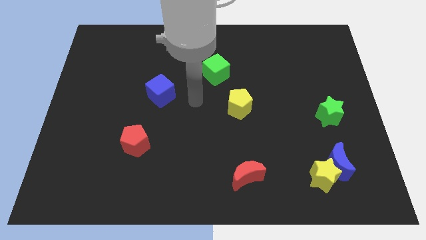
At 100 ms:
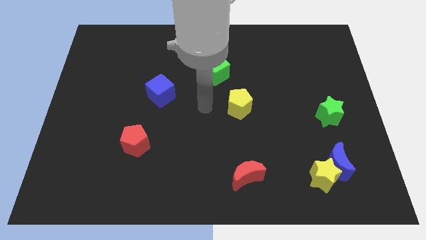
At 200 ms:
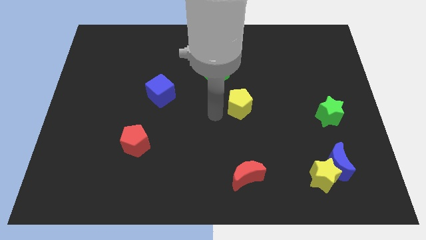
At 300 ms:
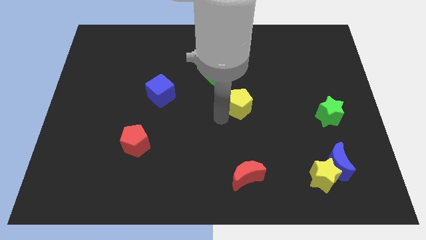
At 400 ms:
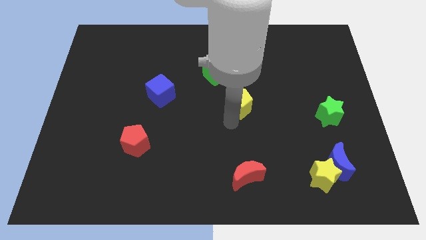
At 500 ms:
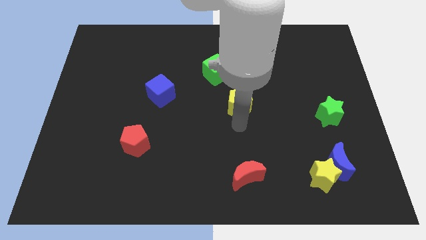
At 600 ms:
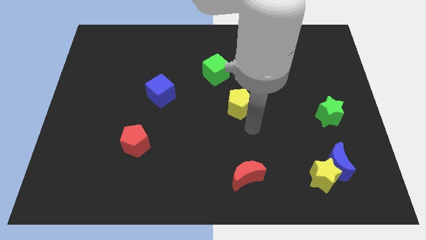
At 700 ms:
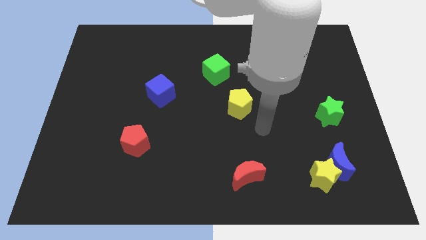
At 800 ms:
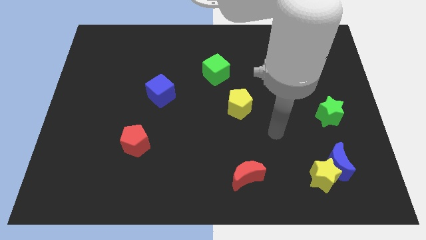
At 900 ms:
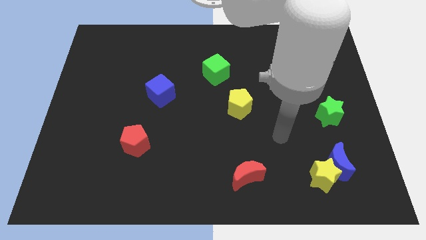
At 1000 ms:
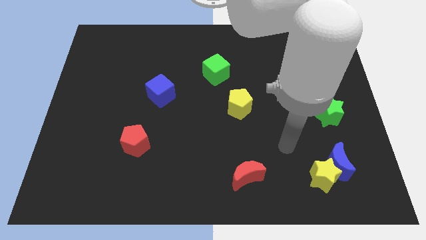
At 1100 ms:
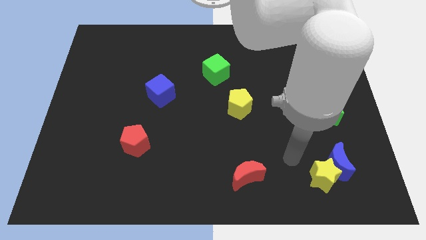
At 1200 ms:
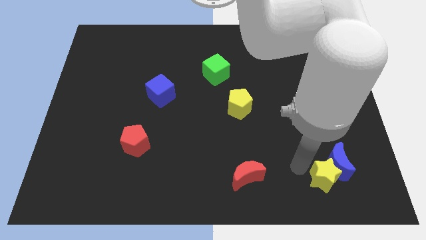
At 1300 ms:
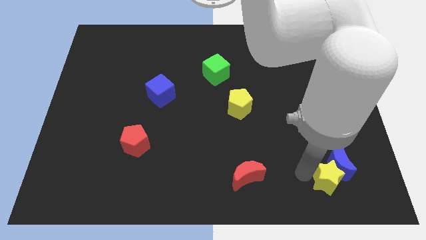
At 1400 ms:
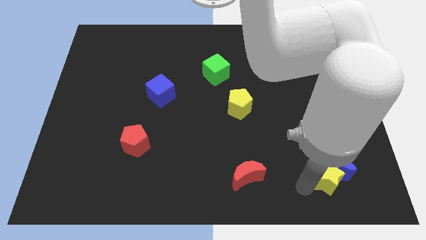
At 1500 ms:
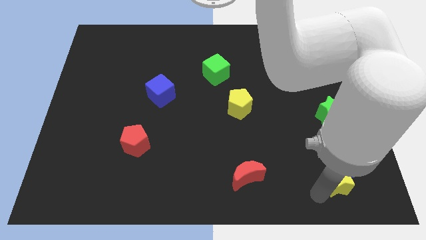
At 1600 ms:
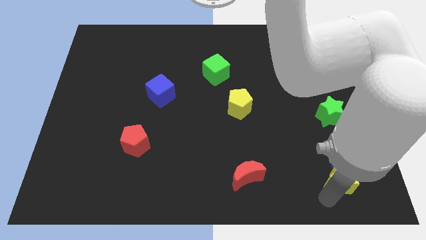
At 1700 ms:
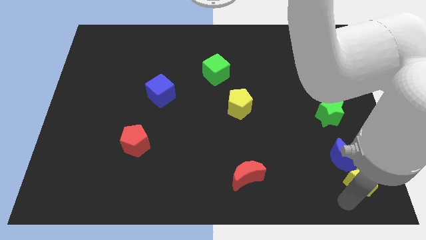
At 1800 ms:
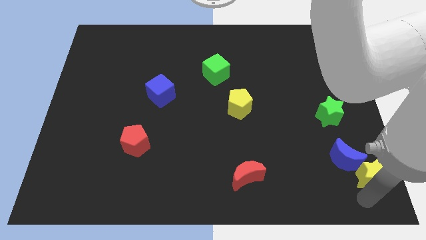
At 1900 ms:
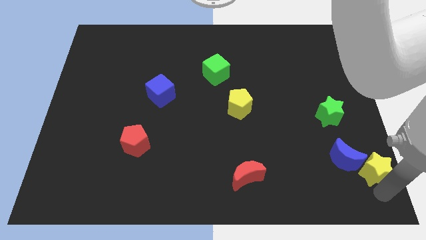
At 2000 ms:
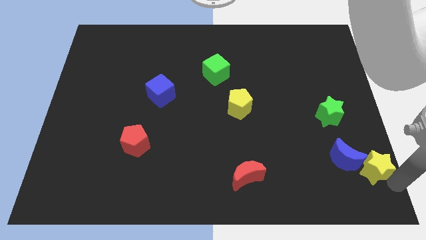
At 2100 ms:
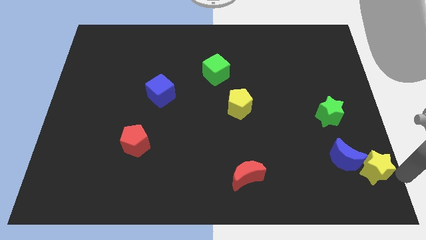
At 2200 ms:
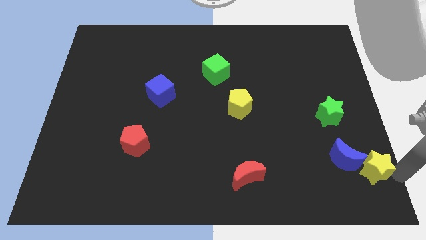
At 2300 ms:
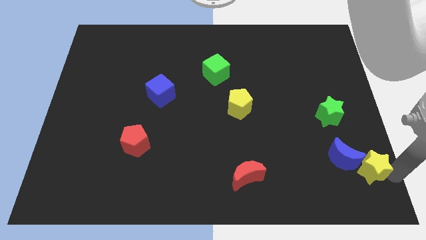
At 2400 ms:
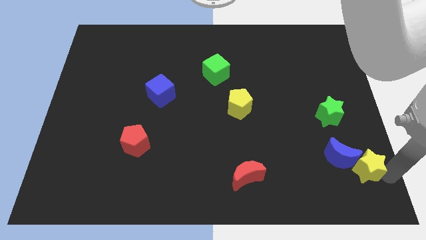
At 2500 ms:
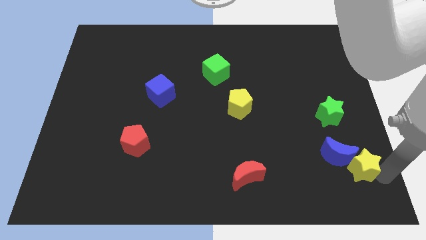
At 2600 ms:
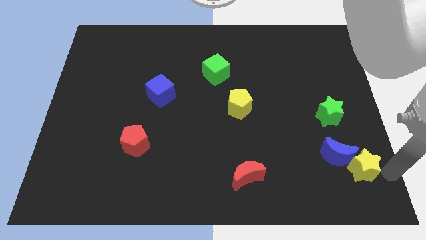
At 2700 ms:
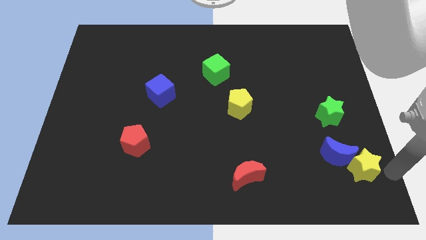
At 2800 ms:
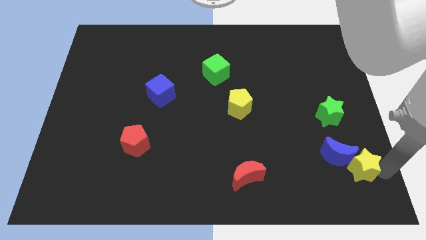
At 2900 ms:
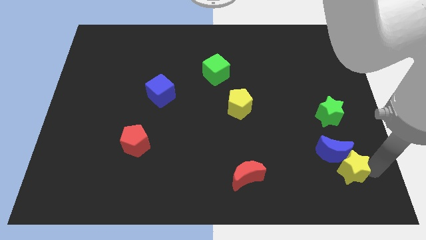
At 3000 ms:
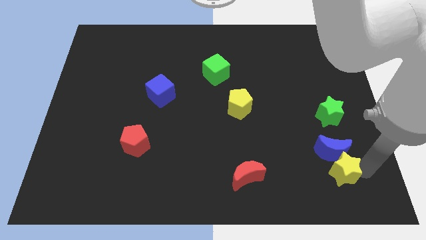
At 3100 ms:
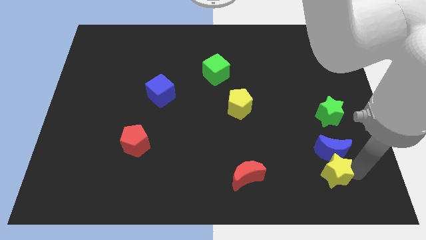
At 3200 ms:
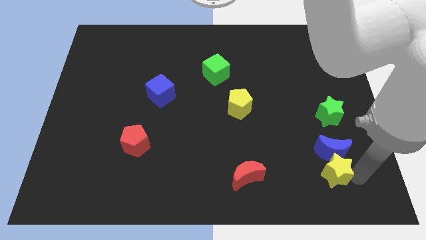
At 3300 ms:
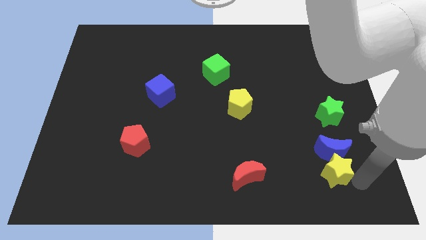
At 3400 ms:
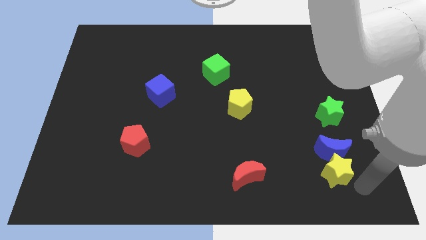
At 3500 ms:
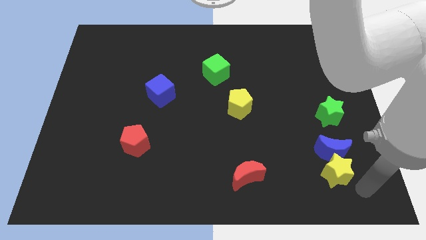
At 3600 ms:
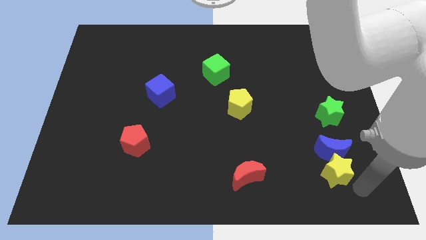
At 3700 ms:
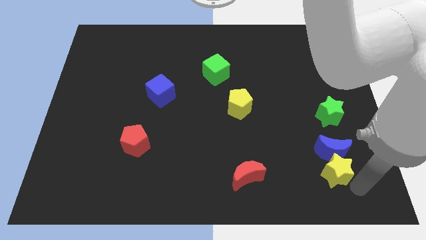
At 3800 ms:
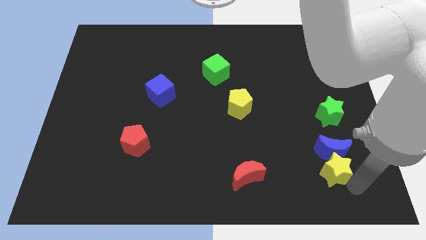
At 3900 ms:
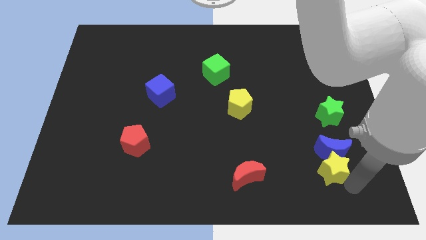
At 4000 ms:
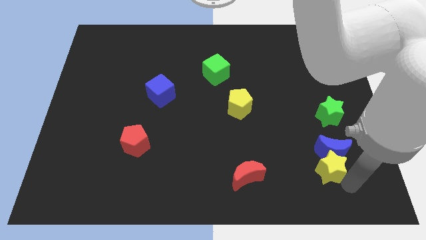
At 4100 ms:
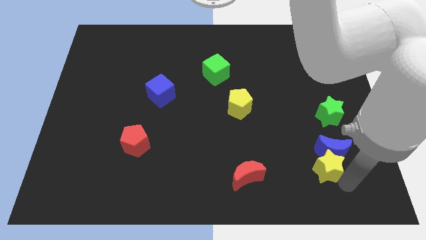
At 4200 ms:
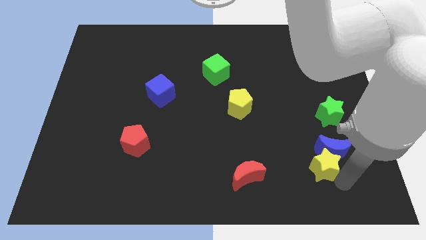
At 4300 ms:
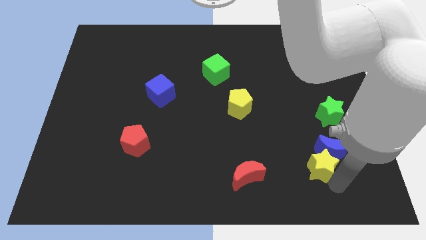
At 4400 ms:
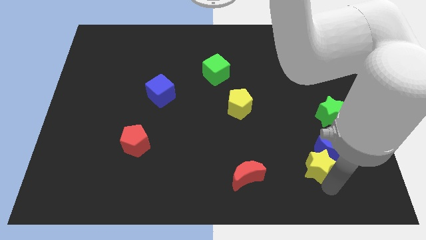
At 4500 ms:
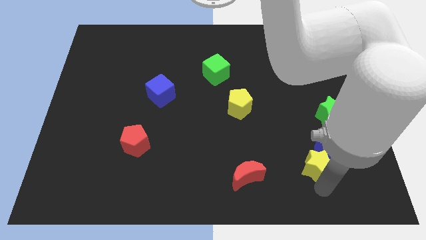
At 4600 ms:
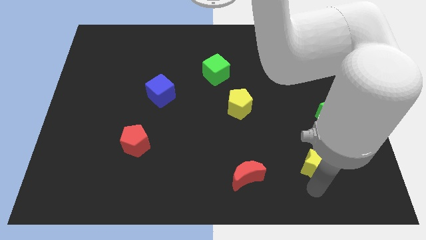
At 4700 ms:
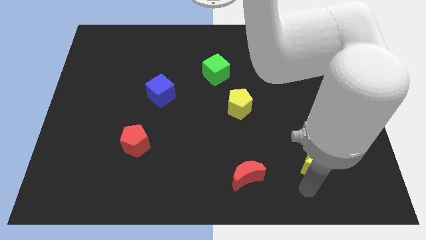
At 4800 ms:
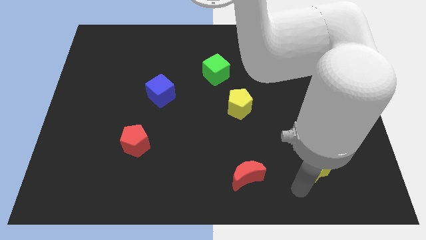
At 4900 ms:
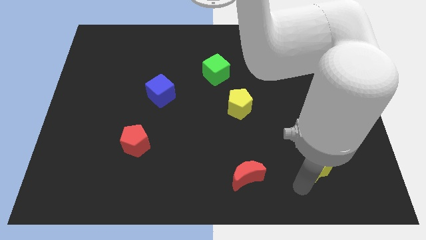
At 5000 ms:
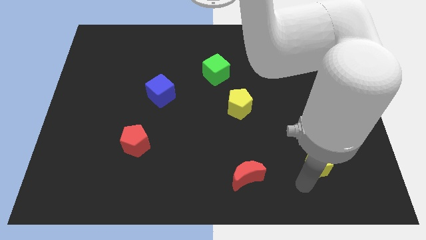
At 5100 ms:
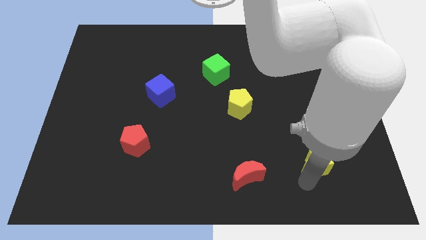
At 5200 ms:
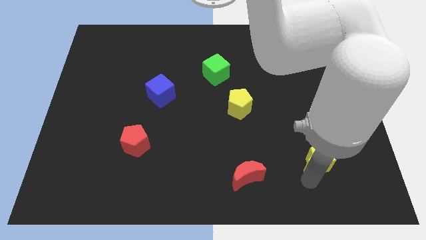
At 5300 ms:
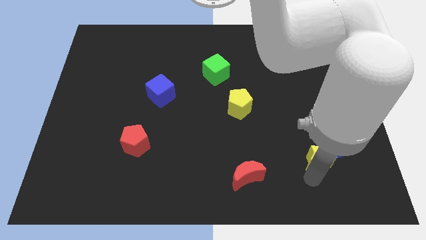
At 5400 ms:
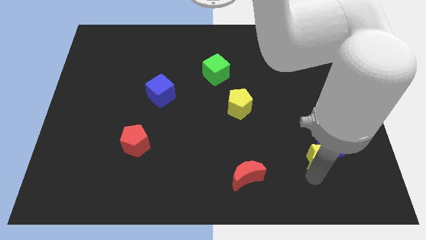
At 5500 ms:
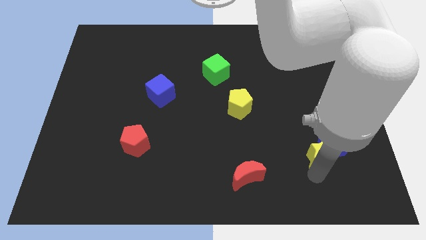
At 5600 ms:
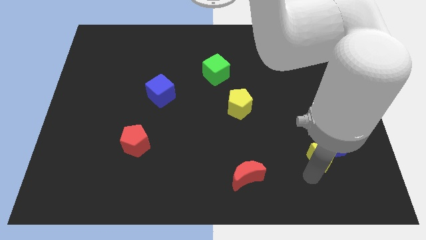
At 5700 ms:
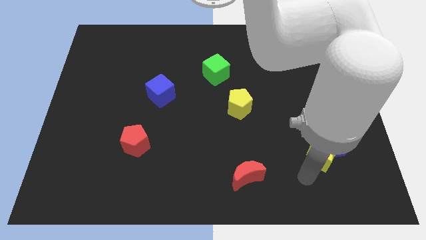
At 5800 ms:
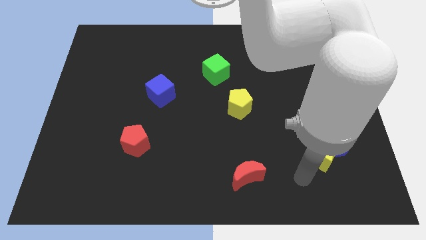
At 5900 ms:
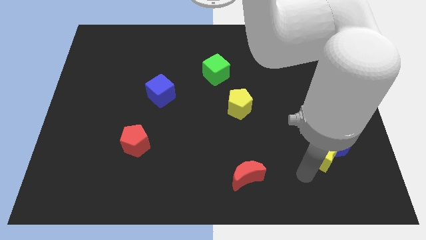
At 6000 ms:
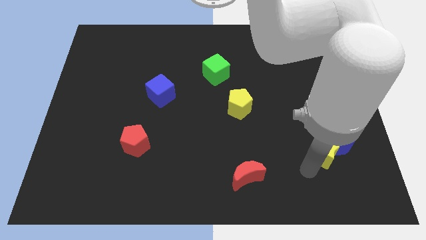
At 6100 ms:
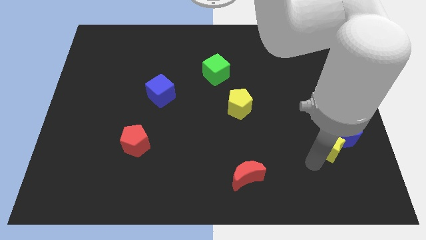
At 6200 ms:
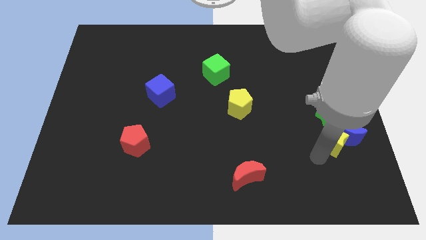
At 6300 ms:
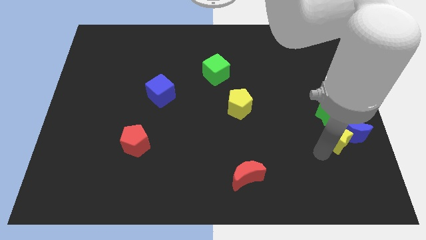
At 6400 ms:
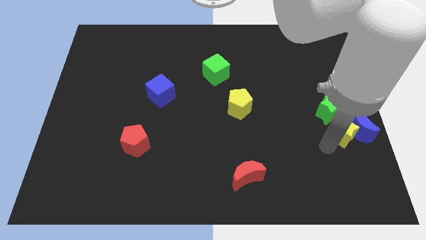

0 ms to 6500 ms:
slide the yellow star to the right side
